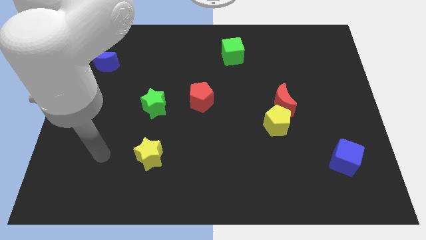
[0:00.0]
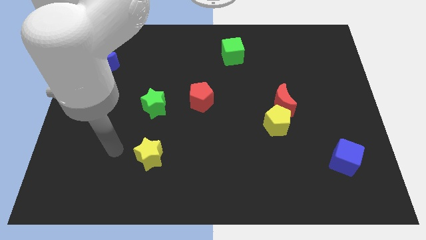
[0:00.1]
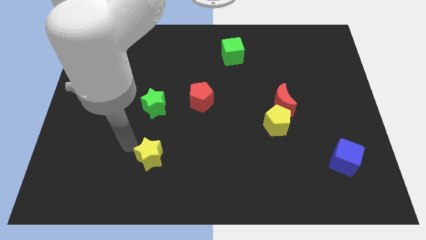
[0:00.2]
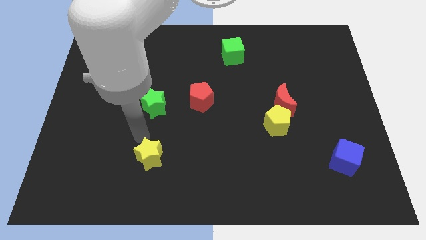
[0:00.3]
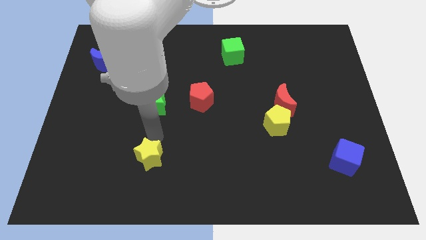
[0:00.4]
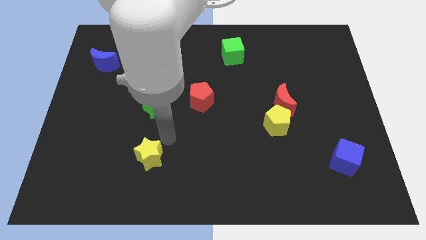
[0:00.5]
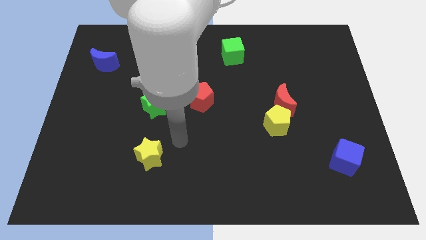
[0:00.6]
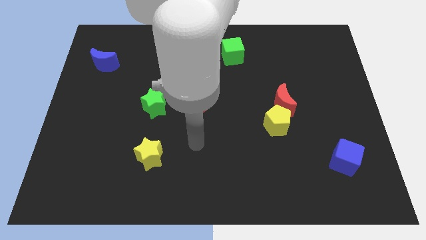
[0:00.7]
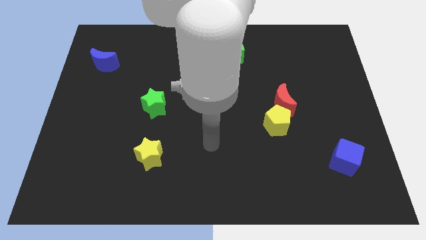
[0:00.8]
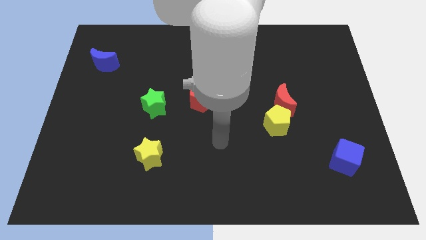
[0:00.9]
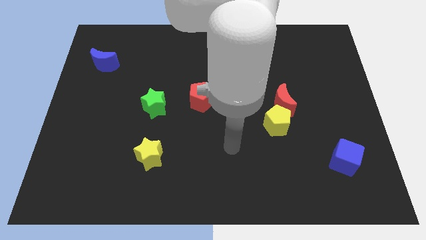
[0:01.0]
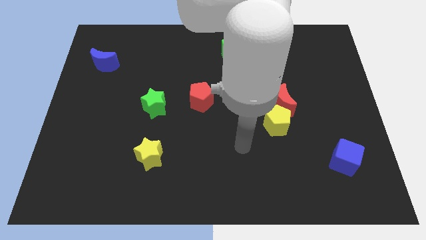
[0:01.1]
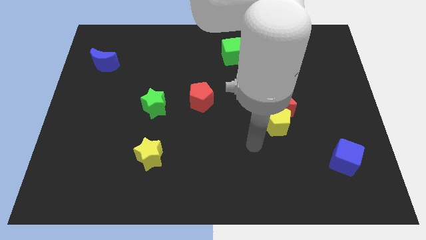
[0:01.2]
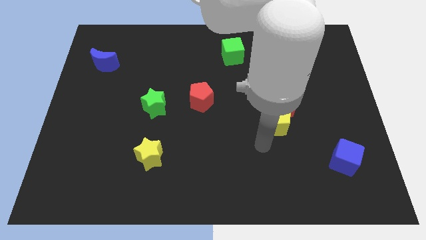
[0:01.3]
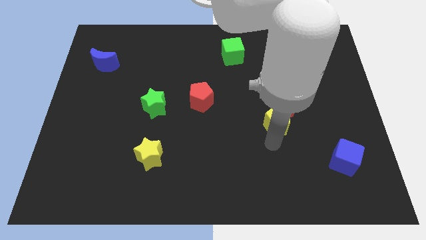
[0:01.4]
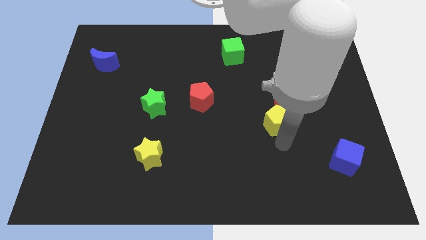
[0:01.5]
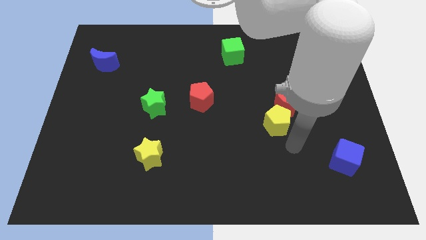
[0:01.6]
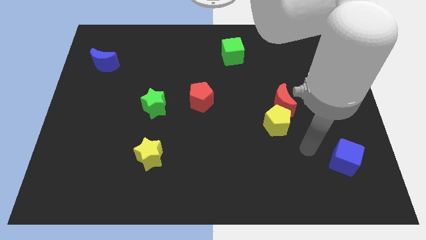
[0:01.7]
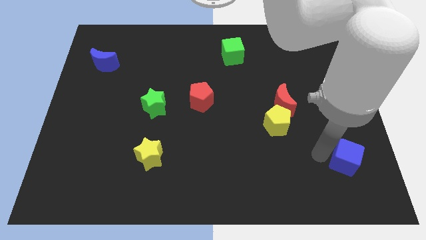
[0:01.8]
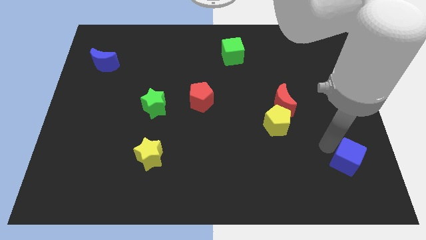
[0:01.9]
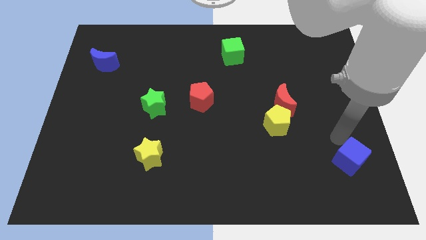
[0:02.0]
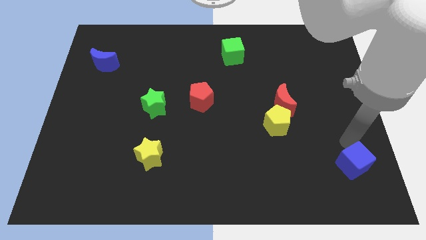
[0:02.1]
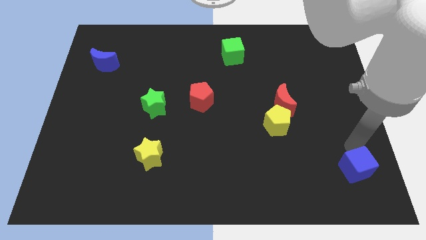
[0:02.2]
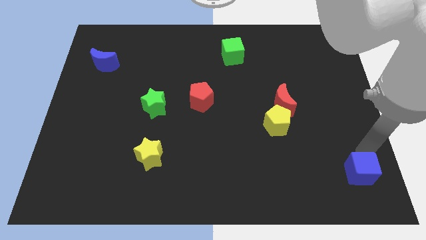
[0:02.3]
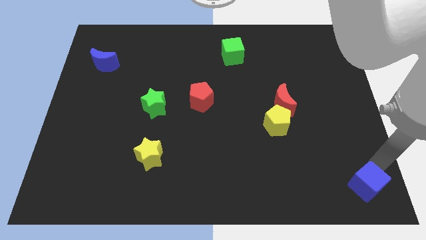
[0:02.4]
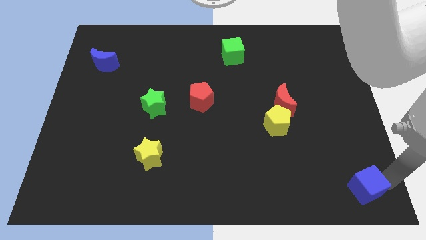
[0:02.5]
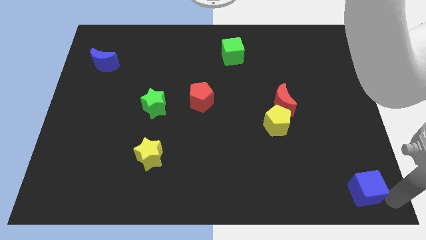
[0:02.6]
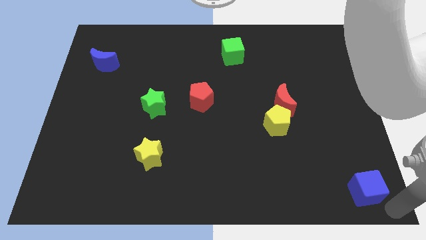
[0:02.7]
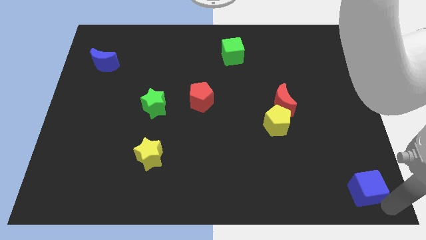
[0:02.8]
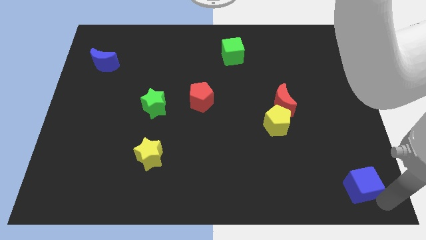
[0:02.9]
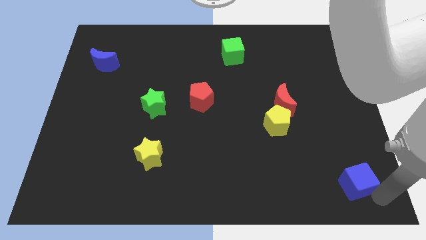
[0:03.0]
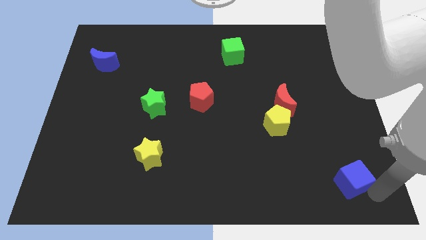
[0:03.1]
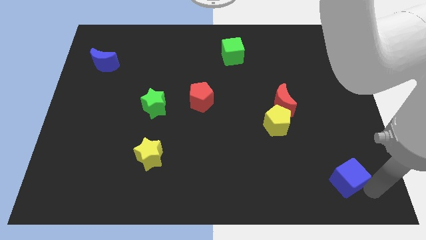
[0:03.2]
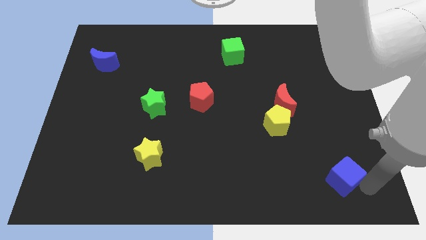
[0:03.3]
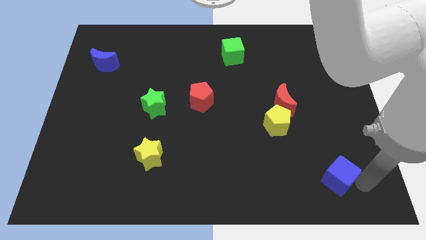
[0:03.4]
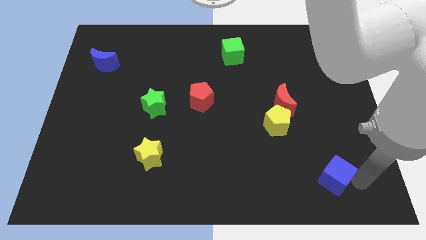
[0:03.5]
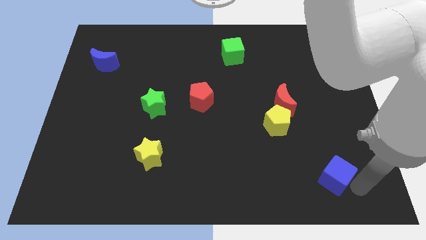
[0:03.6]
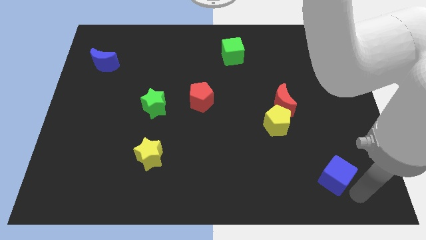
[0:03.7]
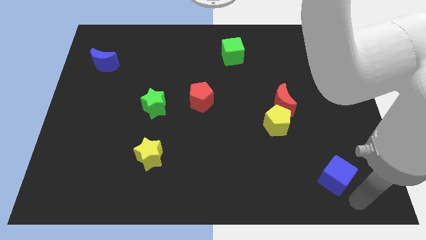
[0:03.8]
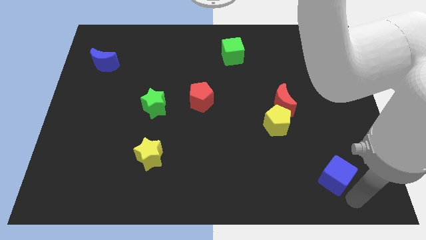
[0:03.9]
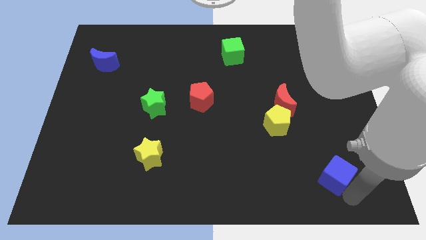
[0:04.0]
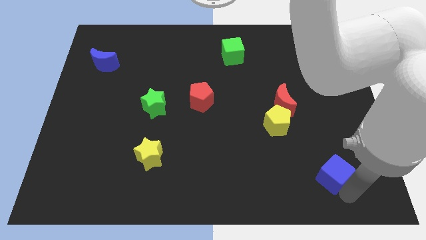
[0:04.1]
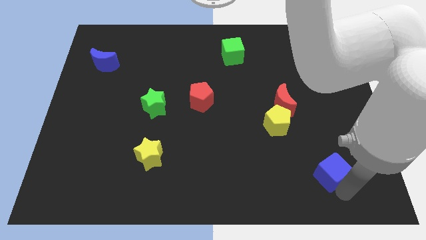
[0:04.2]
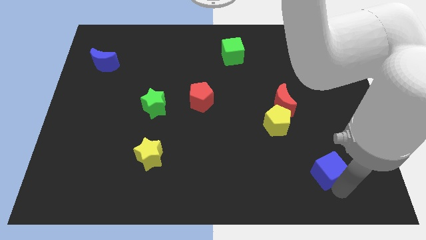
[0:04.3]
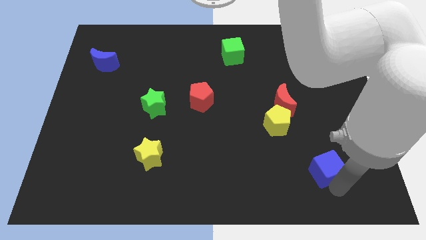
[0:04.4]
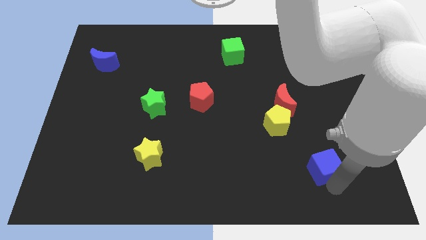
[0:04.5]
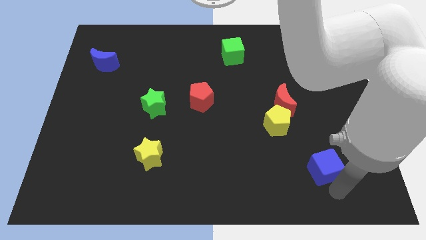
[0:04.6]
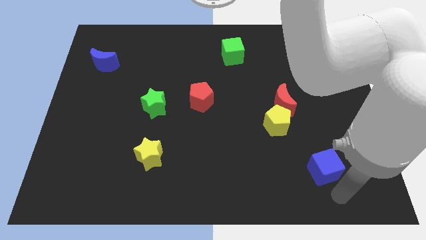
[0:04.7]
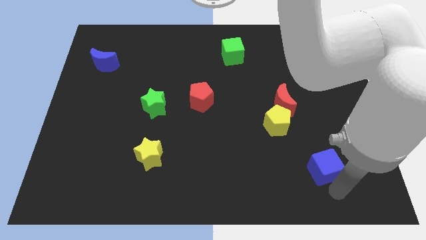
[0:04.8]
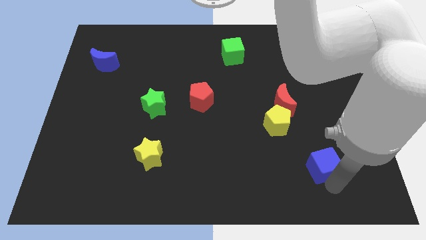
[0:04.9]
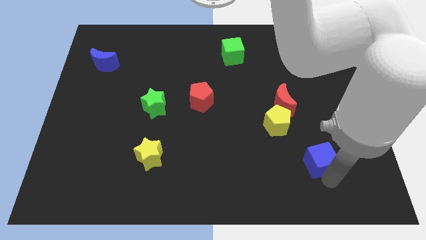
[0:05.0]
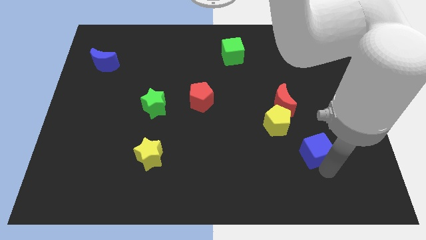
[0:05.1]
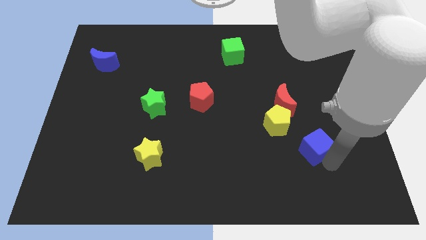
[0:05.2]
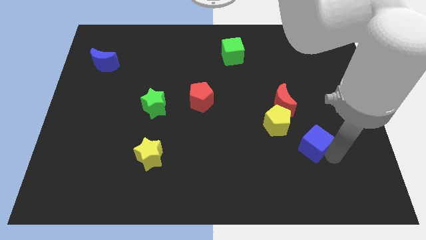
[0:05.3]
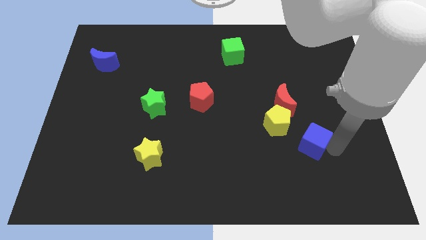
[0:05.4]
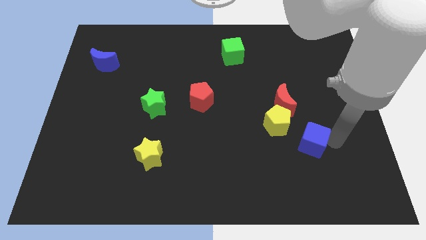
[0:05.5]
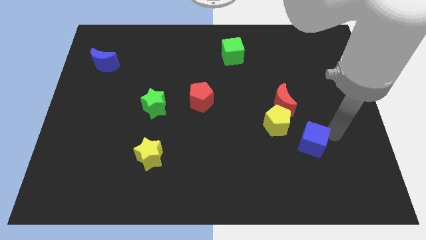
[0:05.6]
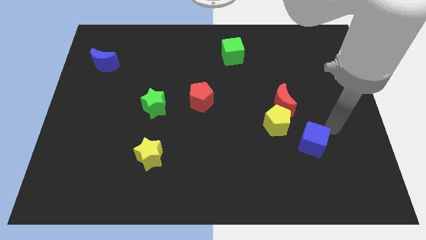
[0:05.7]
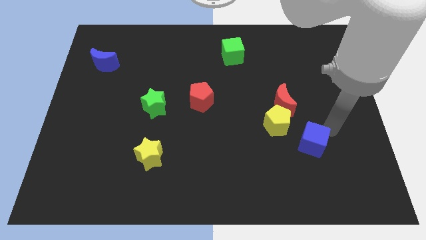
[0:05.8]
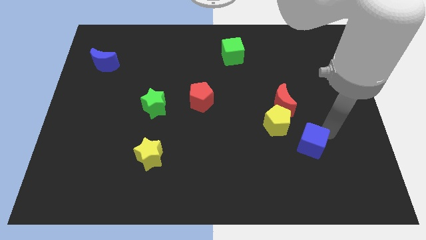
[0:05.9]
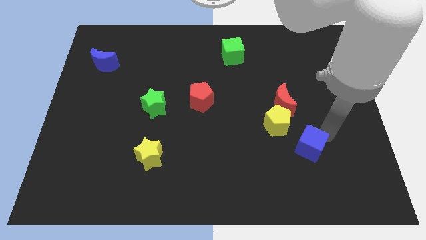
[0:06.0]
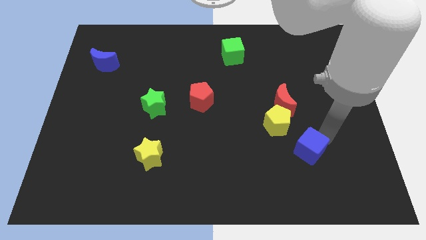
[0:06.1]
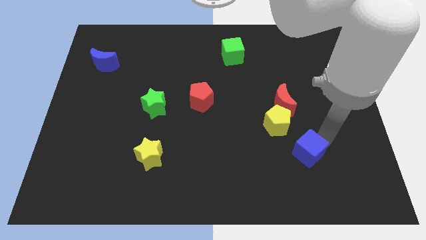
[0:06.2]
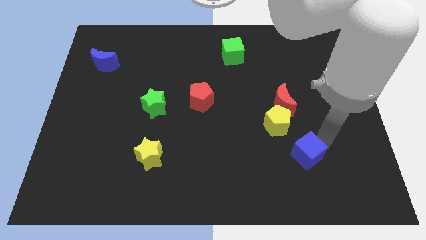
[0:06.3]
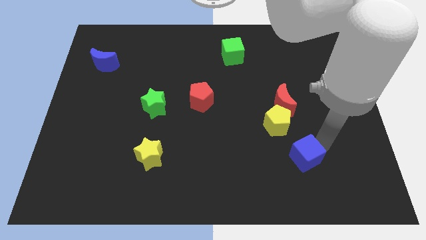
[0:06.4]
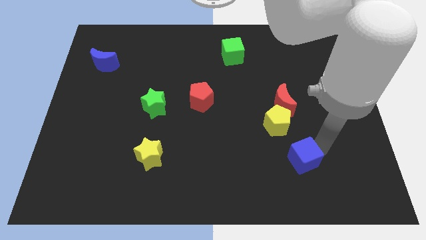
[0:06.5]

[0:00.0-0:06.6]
put the blue cube to the bottom side of the yellow pentagon

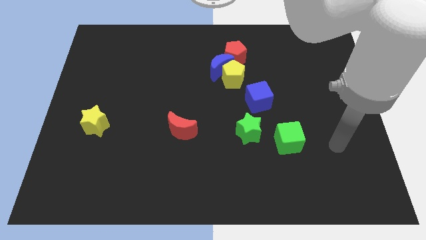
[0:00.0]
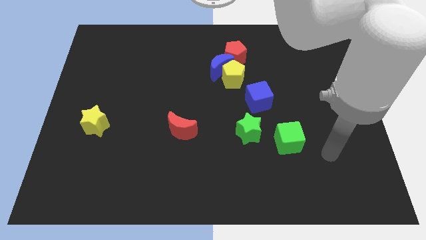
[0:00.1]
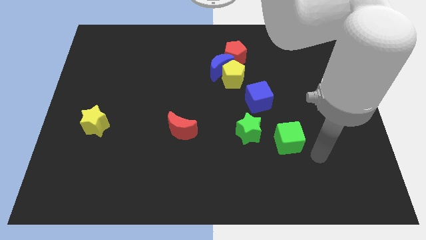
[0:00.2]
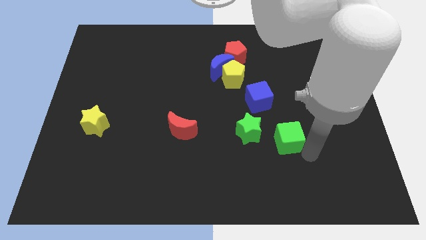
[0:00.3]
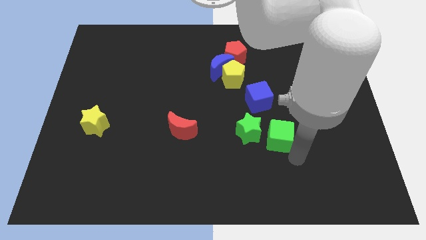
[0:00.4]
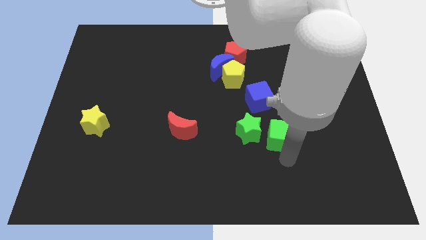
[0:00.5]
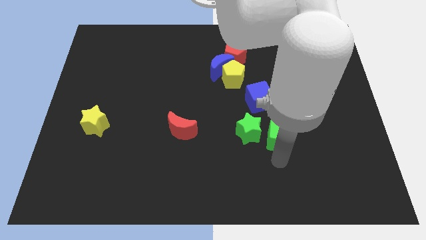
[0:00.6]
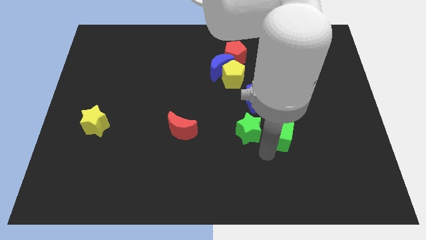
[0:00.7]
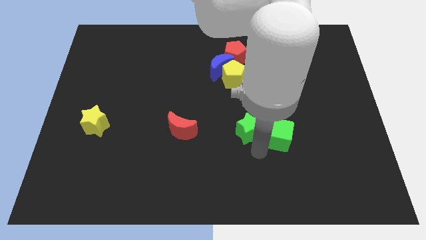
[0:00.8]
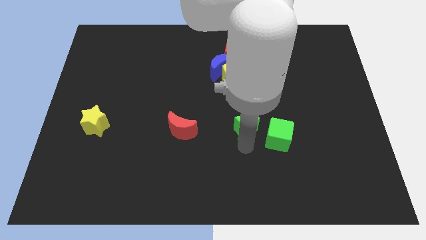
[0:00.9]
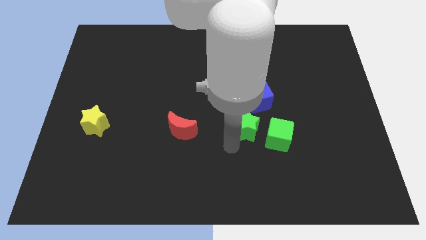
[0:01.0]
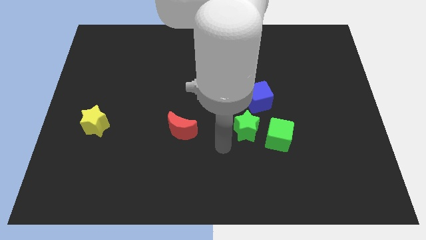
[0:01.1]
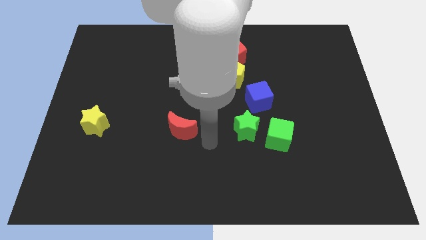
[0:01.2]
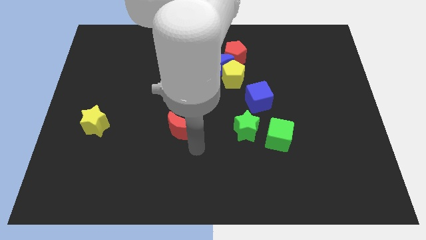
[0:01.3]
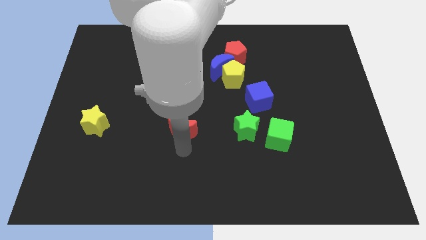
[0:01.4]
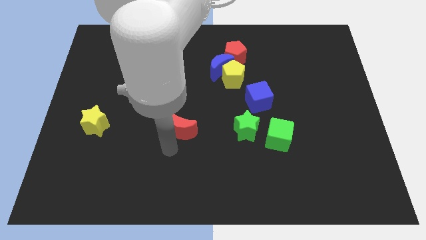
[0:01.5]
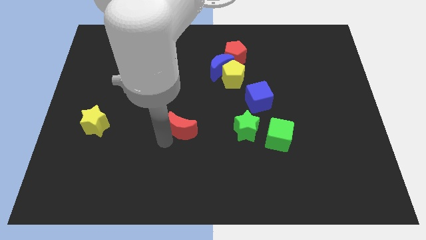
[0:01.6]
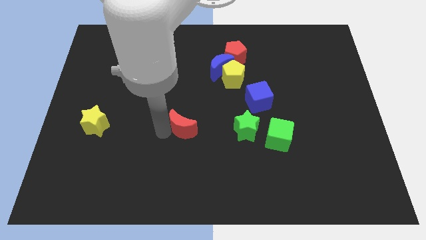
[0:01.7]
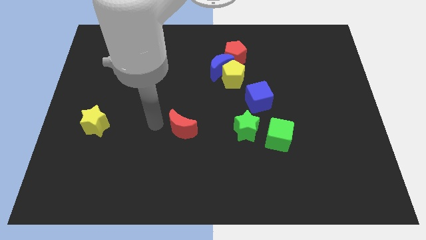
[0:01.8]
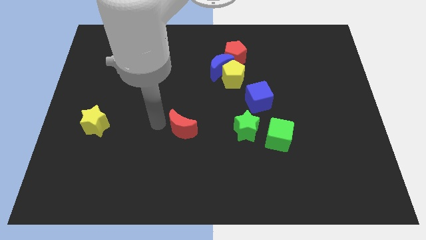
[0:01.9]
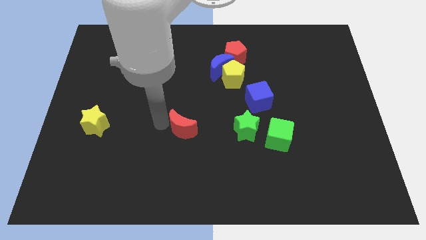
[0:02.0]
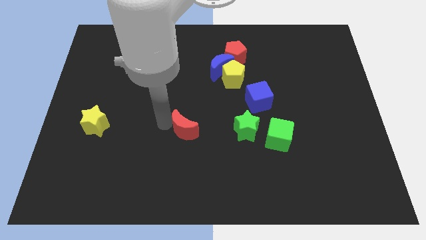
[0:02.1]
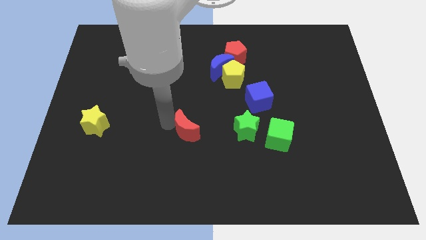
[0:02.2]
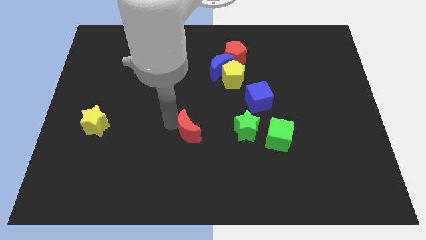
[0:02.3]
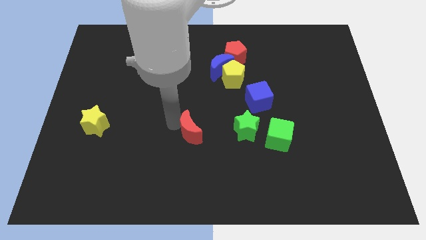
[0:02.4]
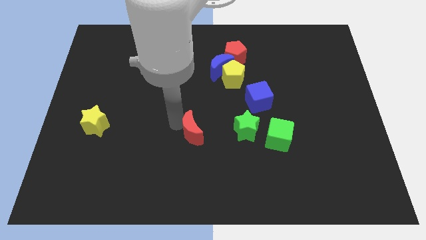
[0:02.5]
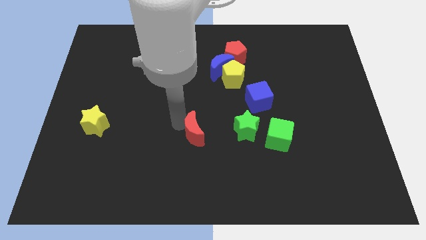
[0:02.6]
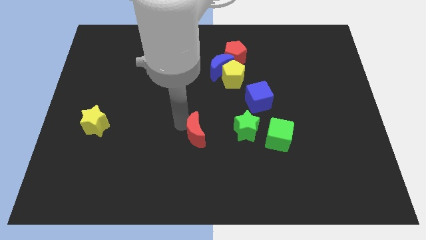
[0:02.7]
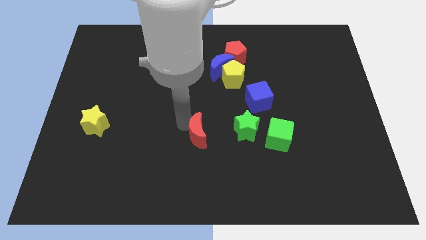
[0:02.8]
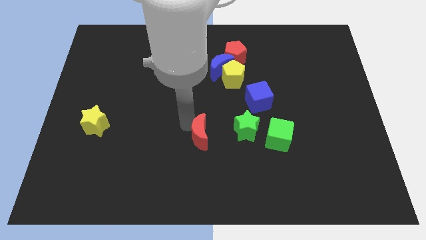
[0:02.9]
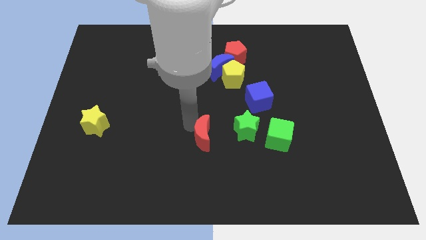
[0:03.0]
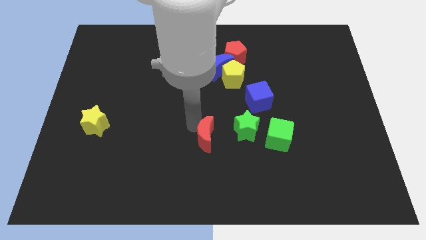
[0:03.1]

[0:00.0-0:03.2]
move the red moon to the left side of the green cube
